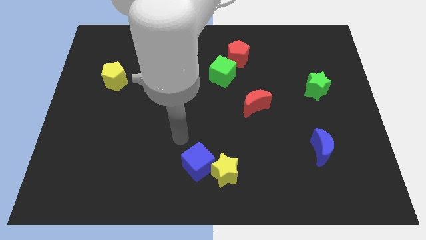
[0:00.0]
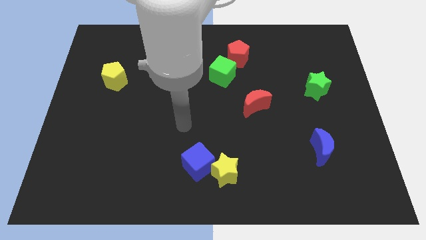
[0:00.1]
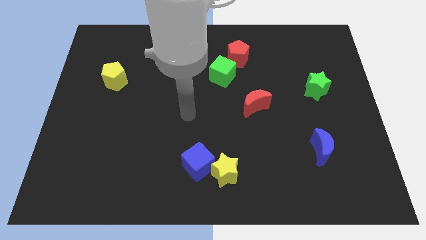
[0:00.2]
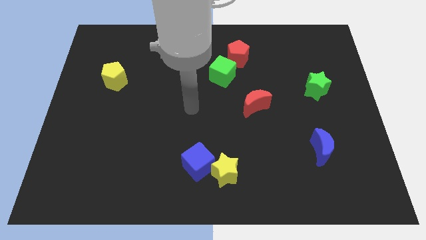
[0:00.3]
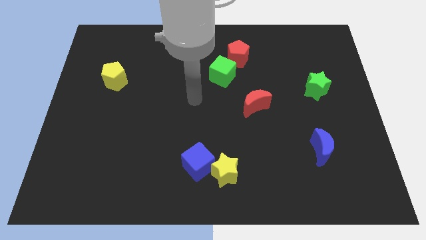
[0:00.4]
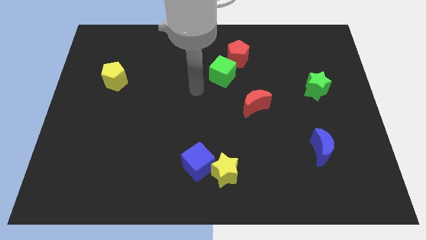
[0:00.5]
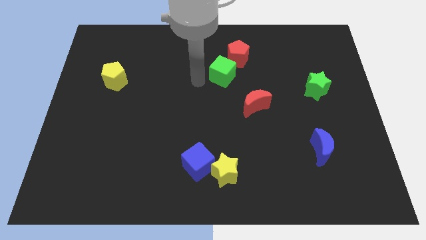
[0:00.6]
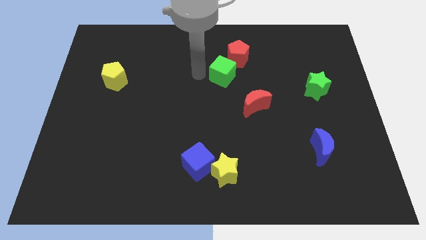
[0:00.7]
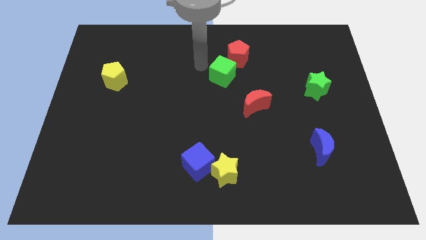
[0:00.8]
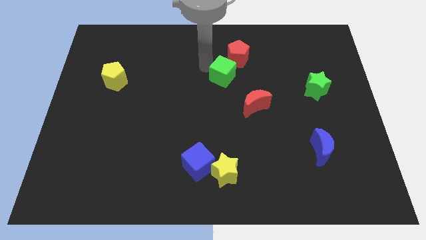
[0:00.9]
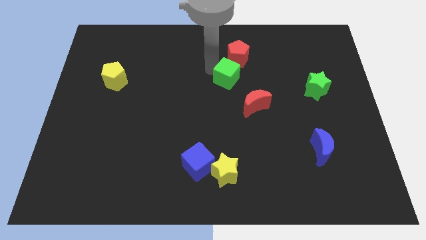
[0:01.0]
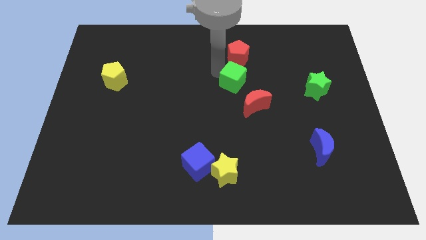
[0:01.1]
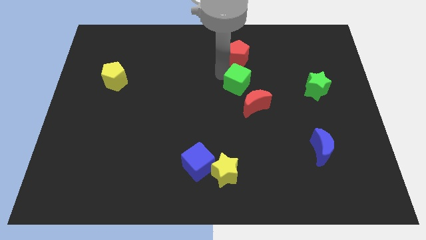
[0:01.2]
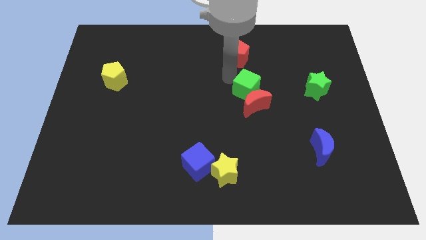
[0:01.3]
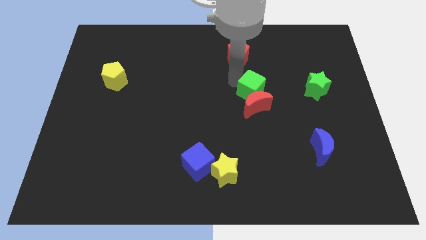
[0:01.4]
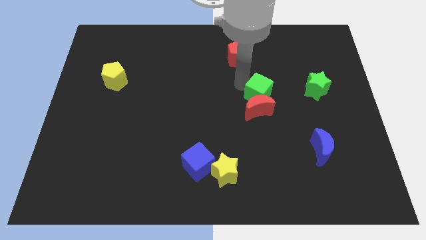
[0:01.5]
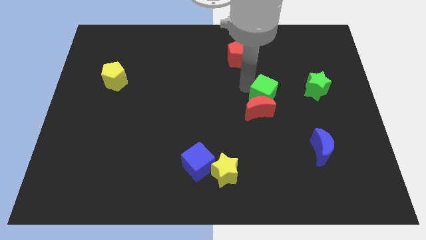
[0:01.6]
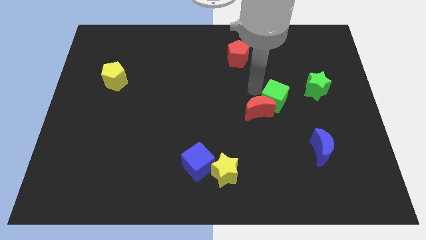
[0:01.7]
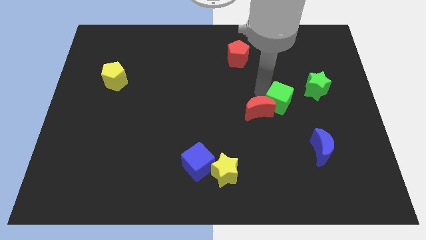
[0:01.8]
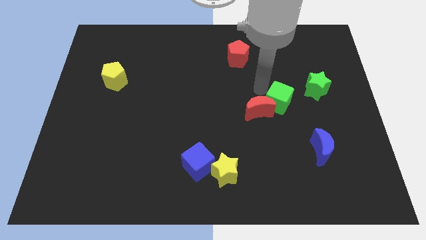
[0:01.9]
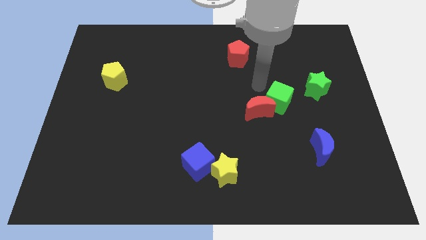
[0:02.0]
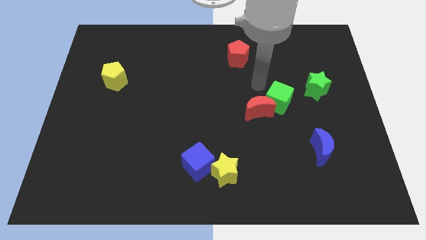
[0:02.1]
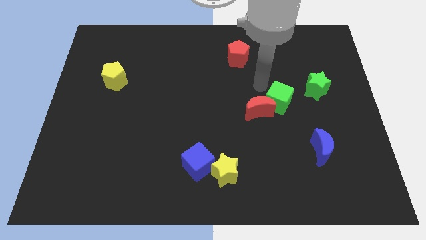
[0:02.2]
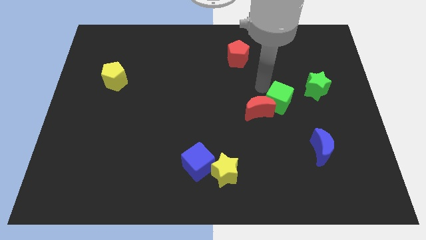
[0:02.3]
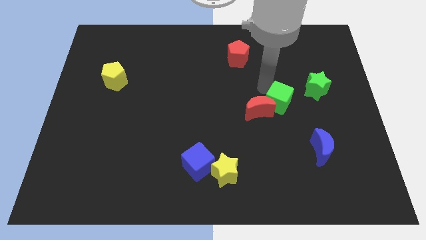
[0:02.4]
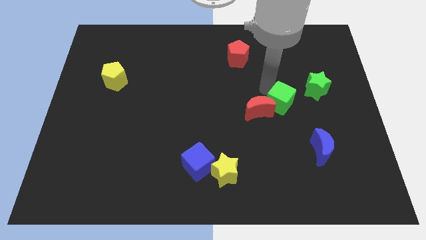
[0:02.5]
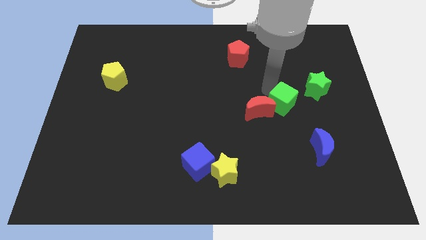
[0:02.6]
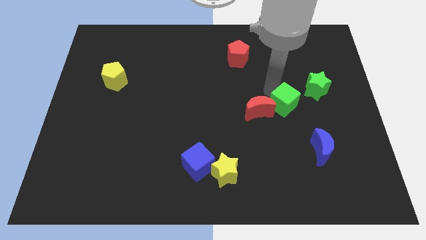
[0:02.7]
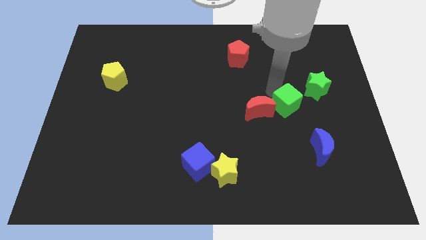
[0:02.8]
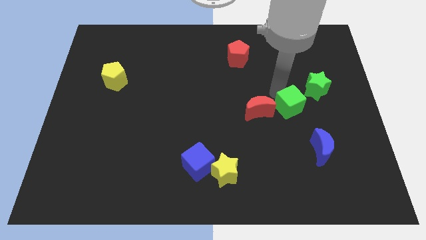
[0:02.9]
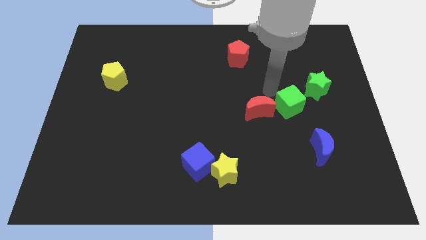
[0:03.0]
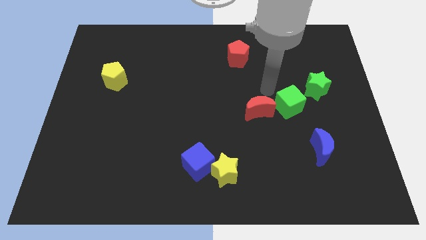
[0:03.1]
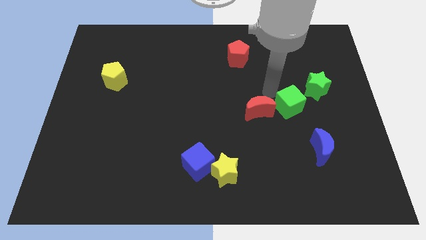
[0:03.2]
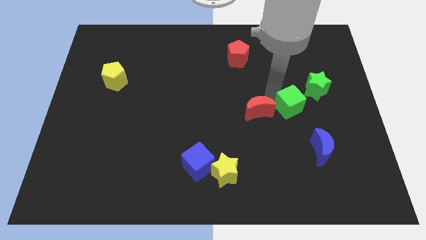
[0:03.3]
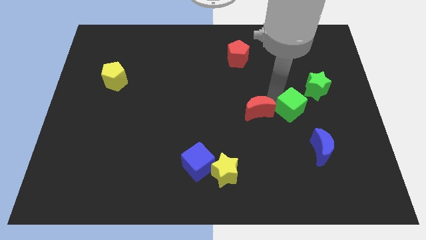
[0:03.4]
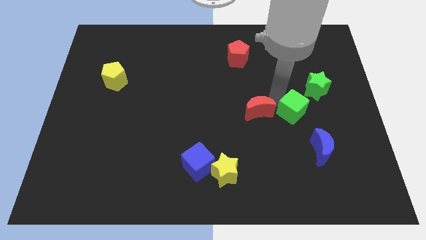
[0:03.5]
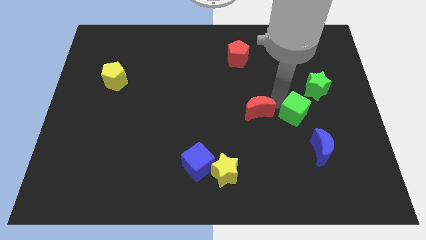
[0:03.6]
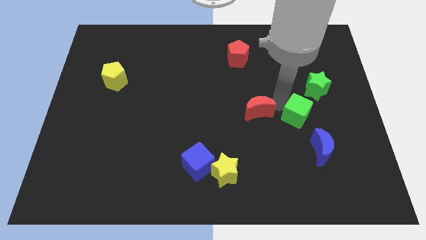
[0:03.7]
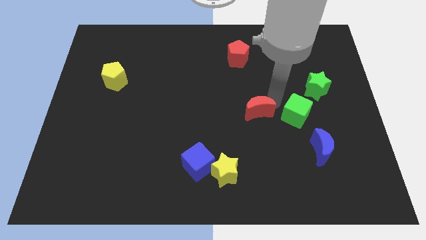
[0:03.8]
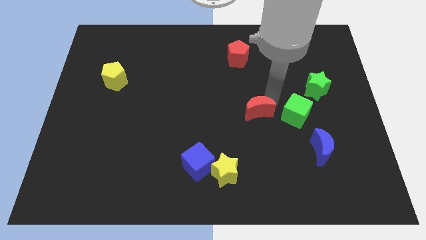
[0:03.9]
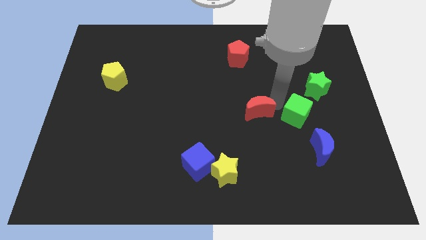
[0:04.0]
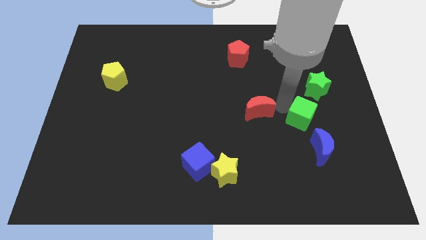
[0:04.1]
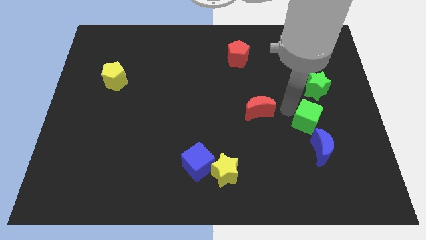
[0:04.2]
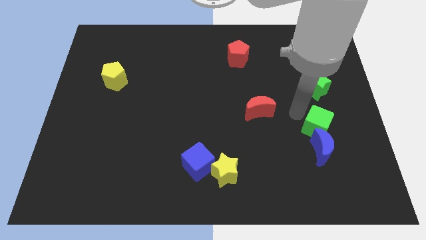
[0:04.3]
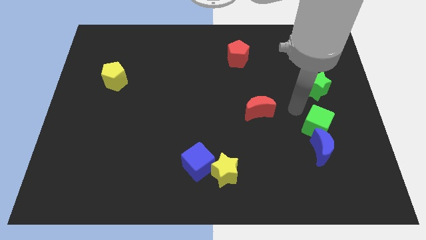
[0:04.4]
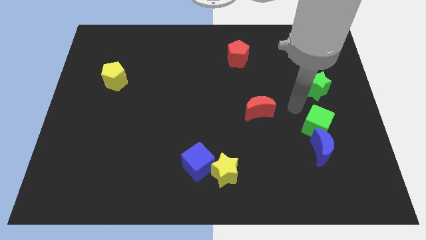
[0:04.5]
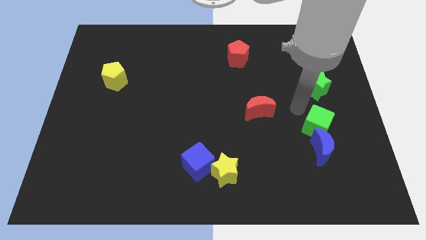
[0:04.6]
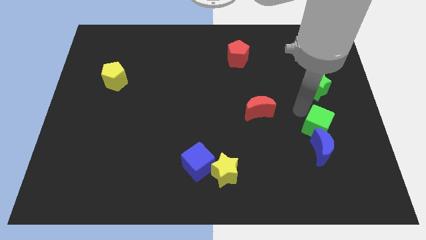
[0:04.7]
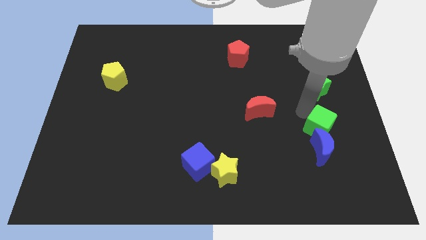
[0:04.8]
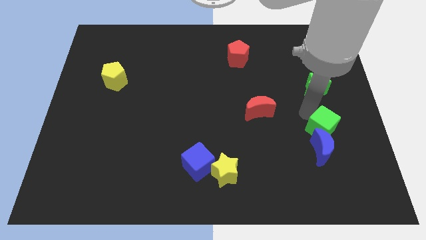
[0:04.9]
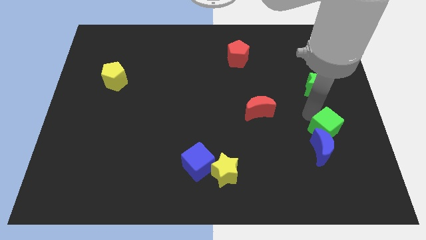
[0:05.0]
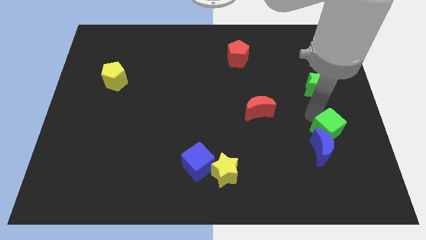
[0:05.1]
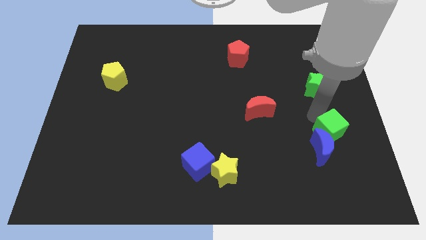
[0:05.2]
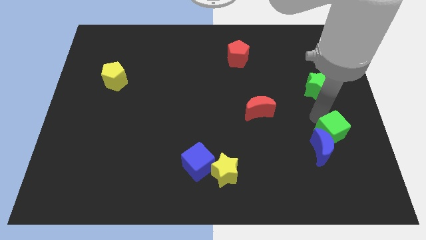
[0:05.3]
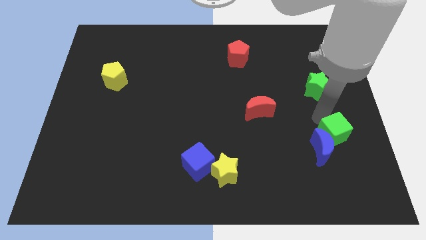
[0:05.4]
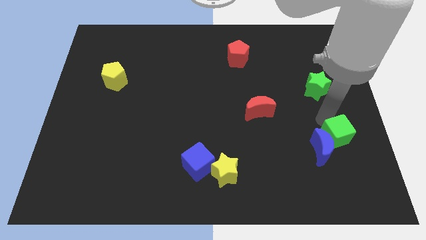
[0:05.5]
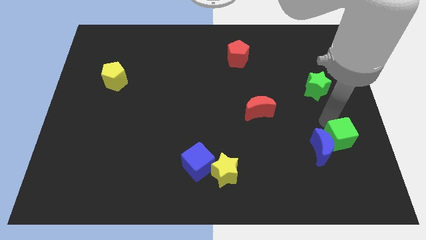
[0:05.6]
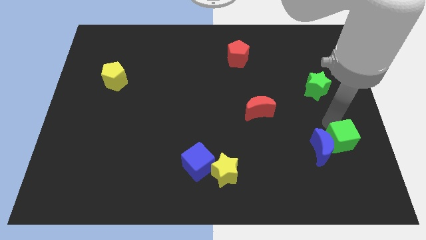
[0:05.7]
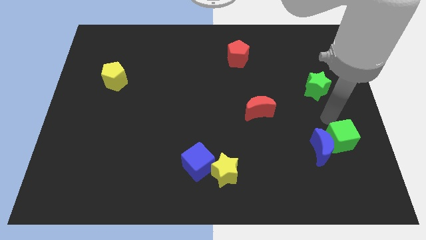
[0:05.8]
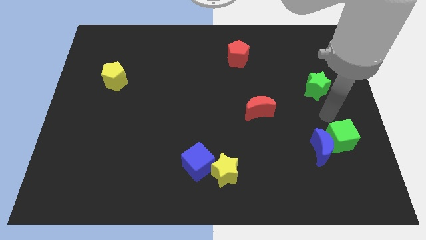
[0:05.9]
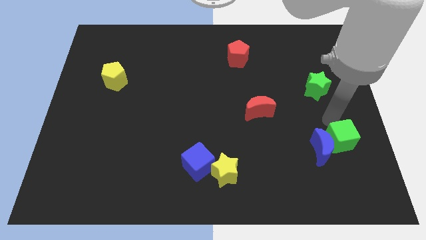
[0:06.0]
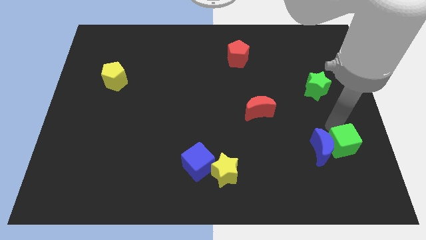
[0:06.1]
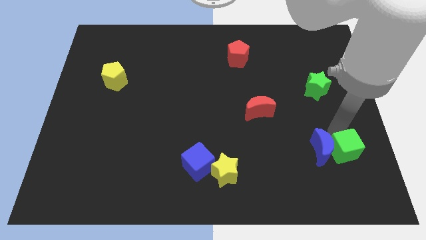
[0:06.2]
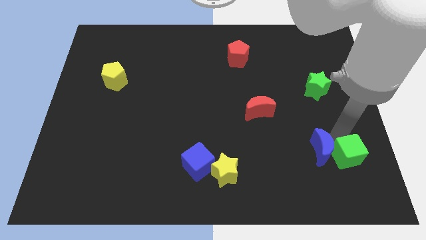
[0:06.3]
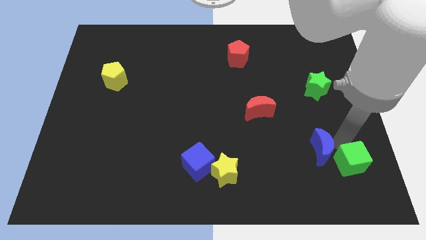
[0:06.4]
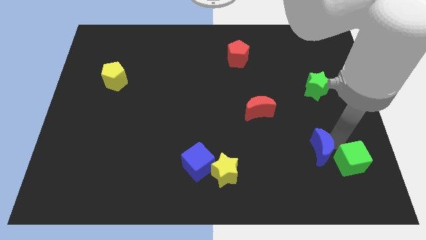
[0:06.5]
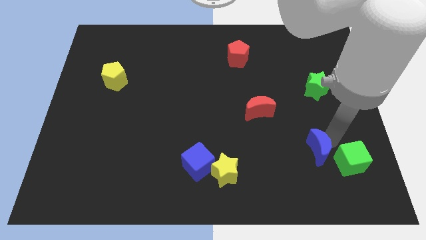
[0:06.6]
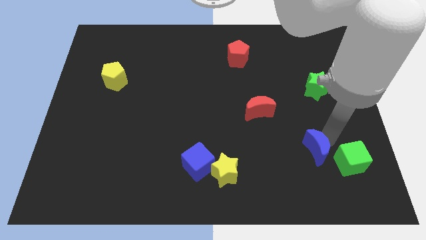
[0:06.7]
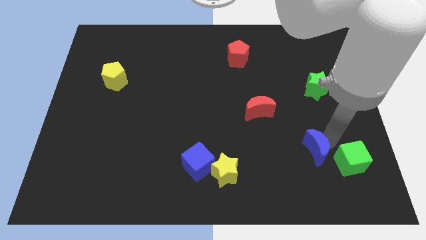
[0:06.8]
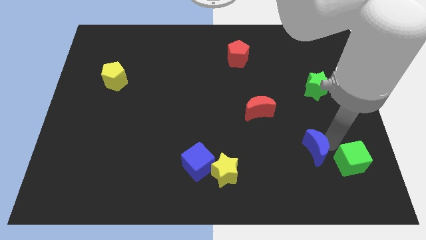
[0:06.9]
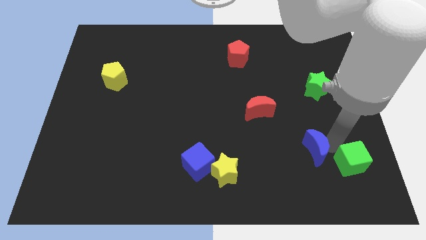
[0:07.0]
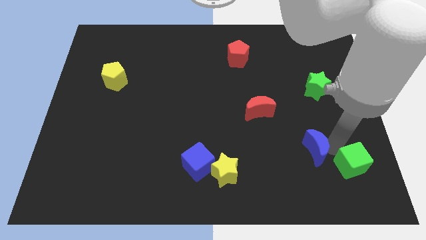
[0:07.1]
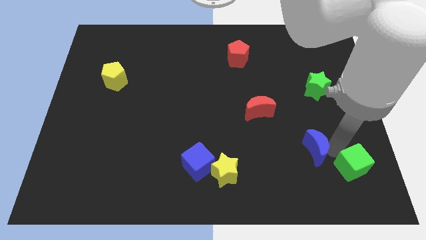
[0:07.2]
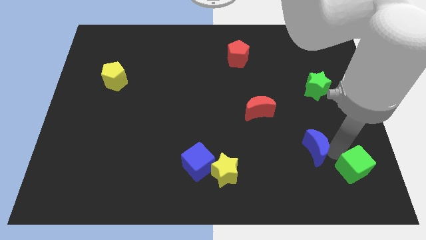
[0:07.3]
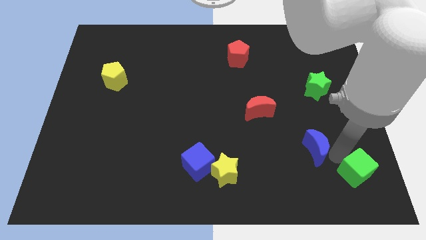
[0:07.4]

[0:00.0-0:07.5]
slide the green cube to the bottom right of the board
